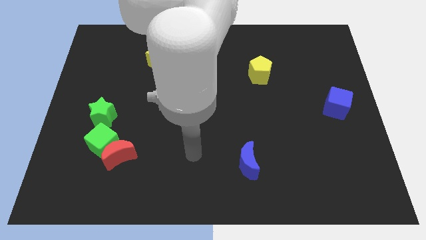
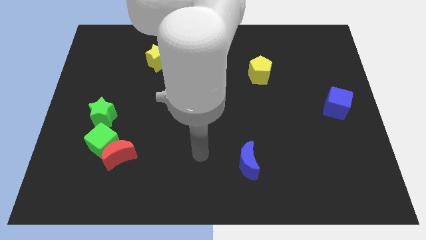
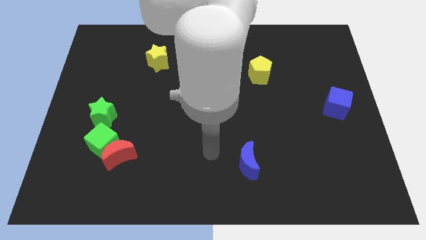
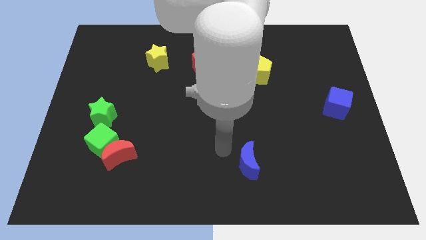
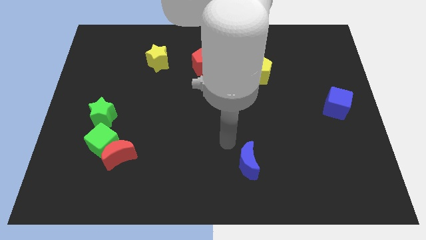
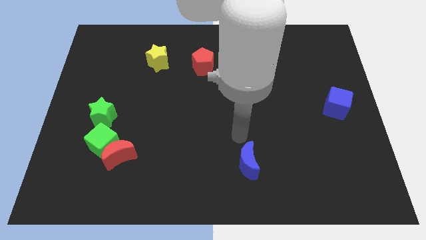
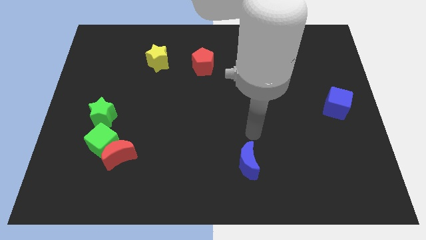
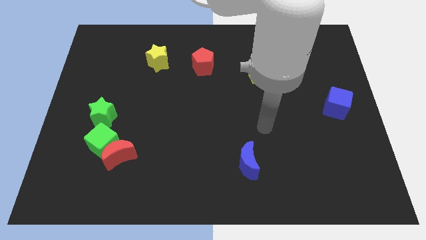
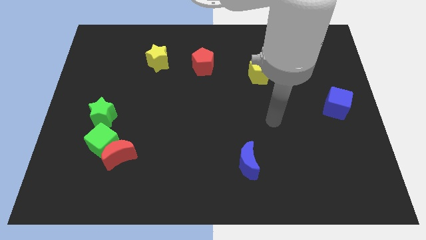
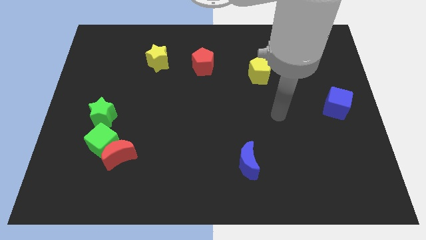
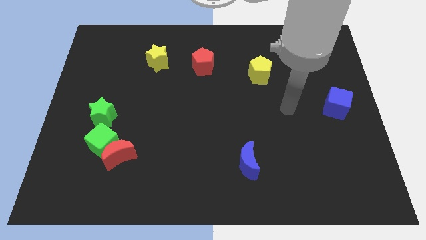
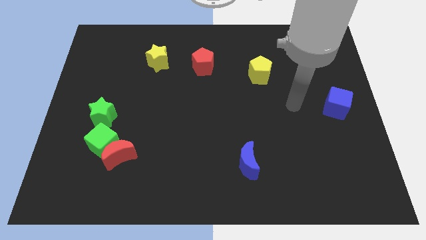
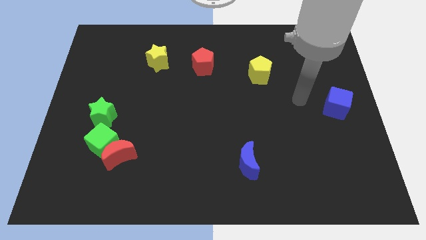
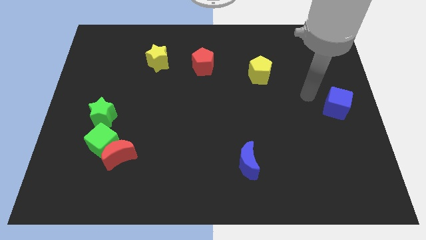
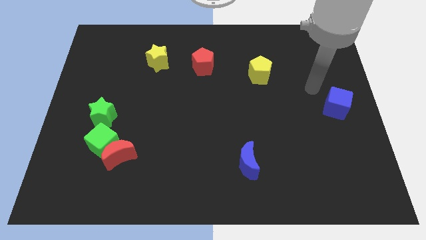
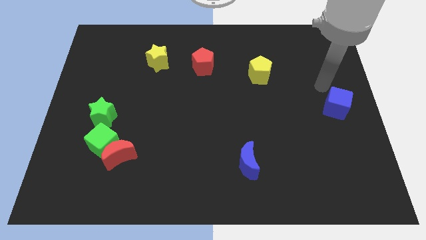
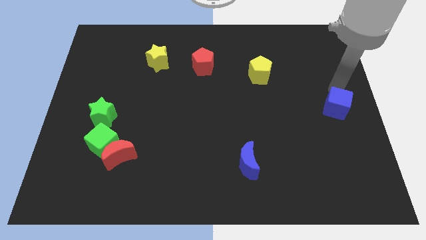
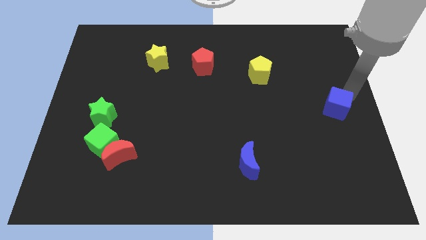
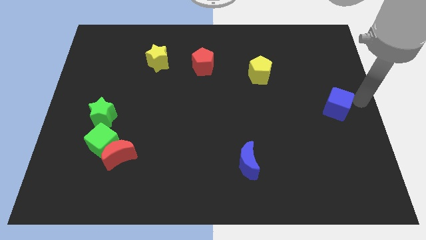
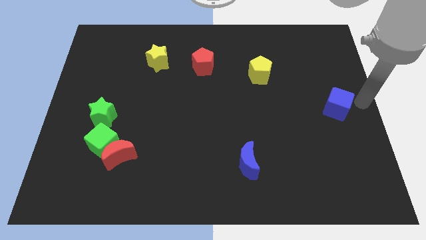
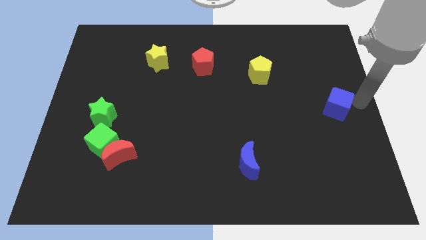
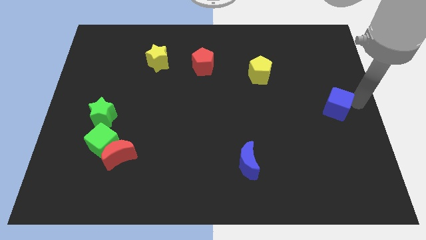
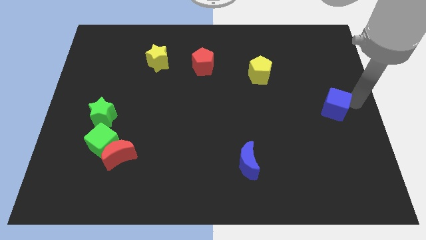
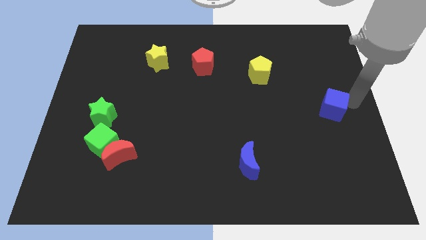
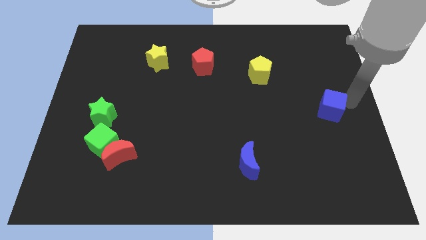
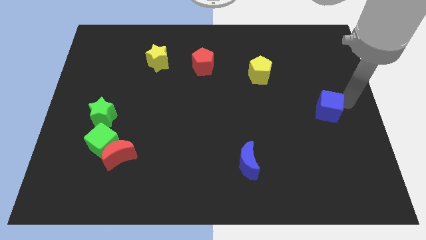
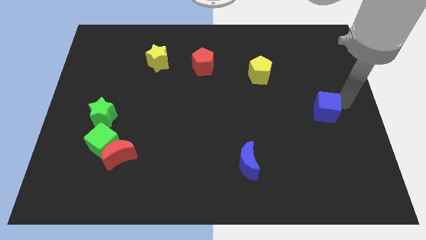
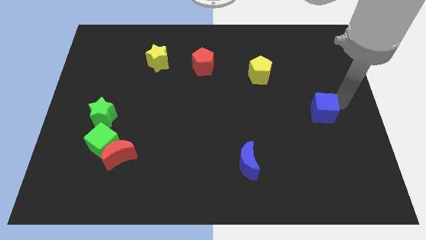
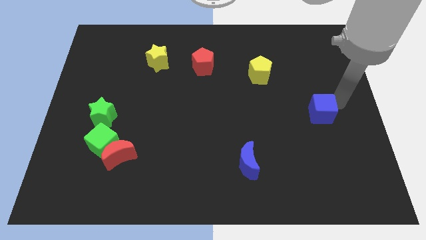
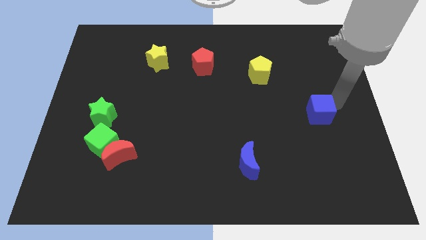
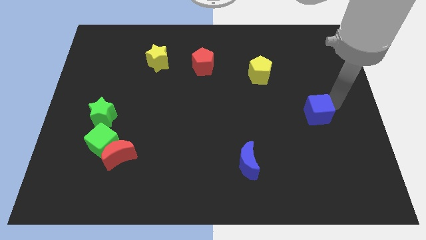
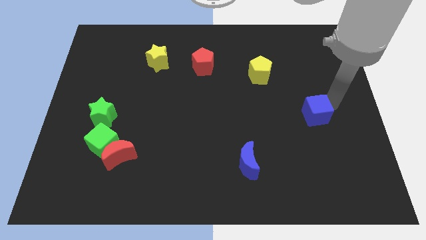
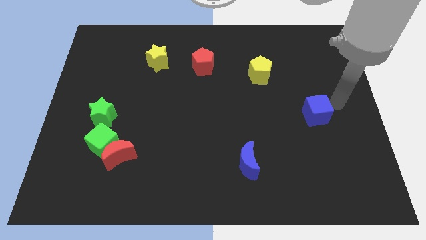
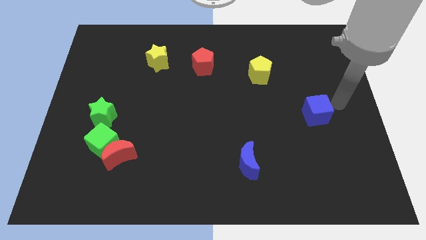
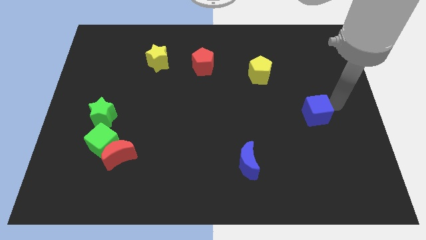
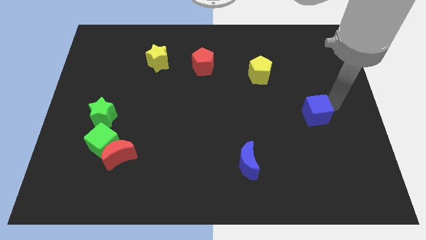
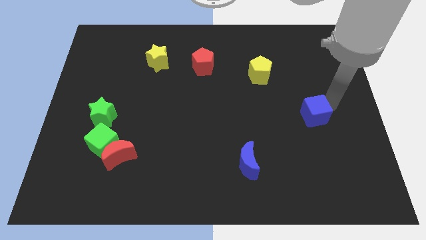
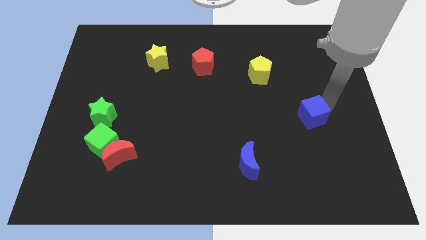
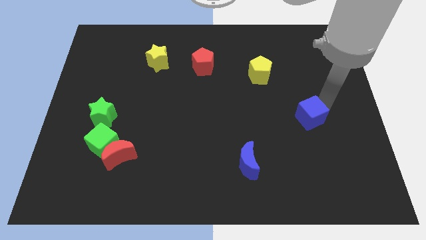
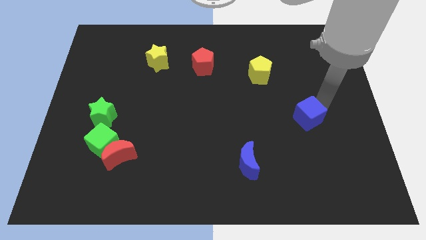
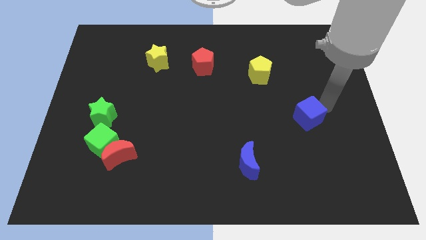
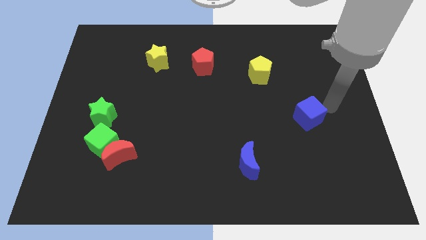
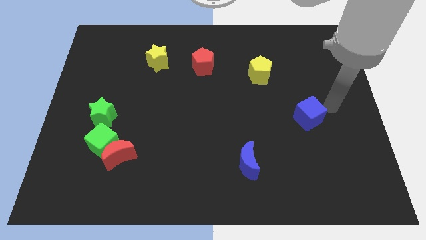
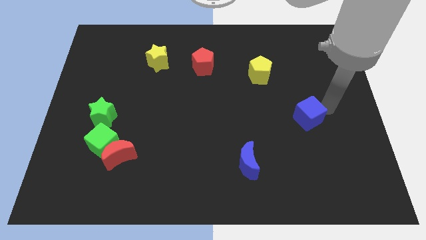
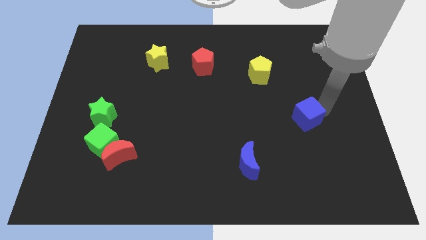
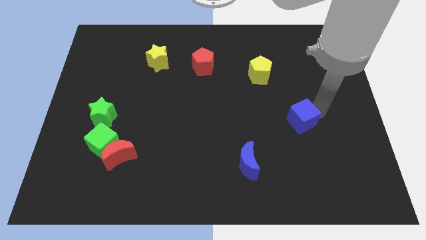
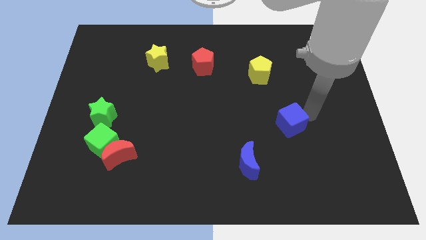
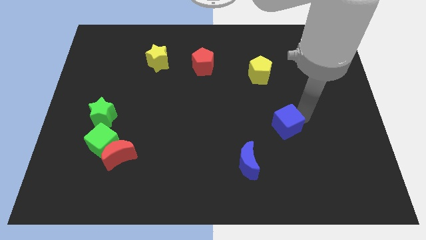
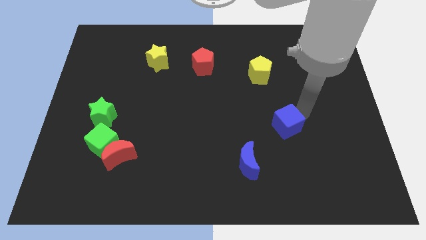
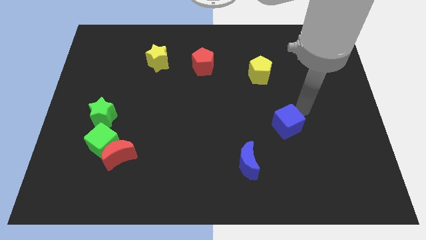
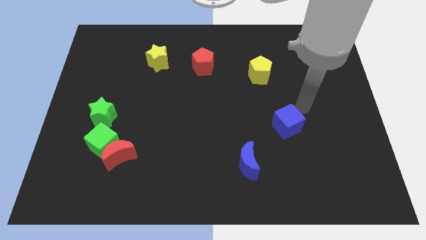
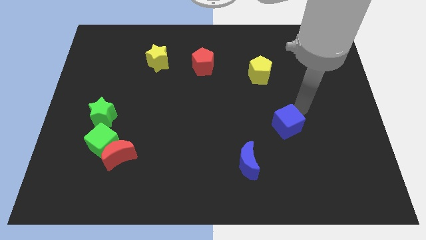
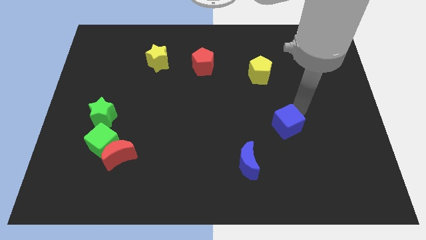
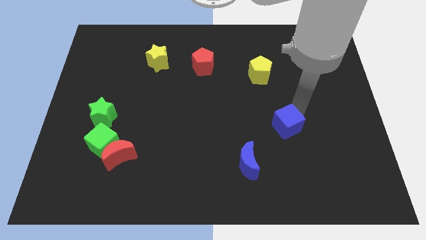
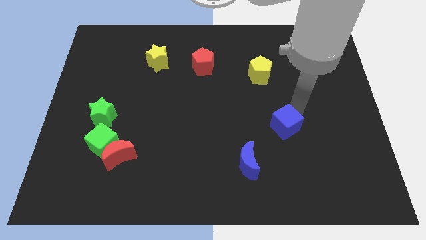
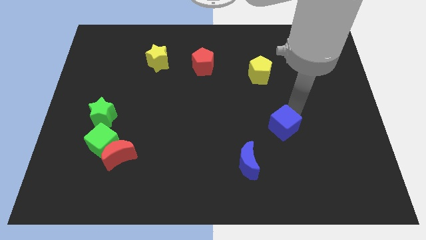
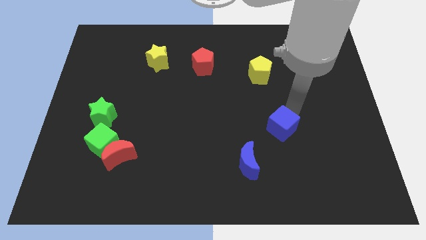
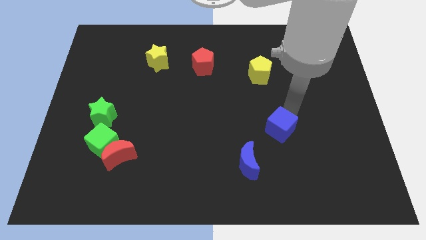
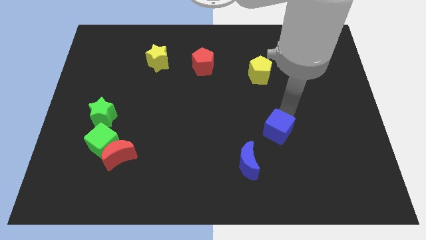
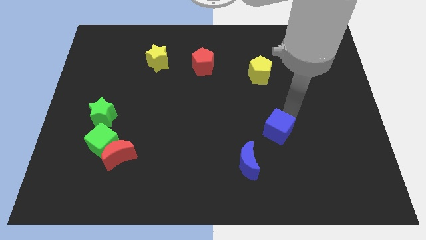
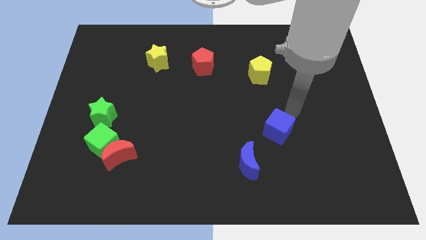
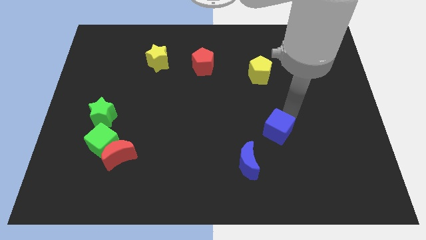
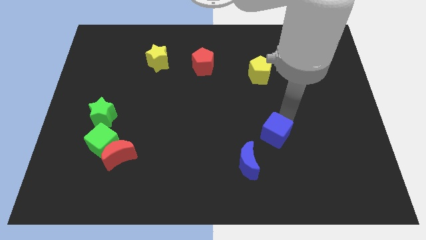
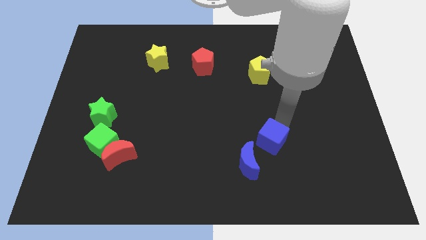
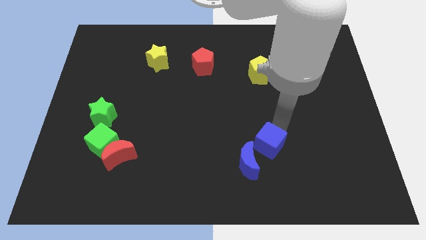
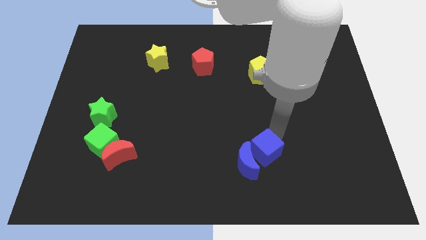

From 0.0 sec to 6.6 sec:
put the blue cube to the blue moon

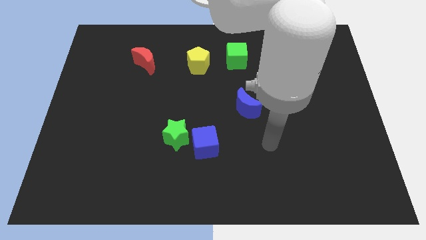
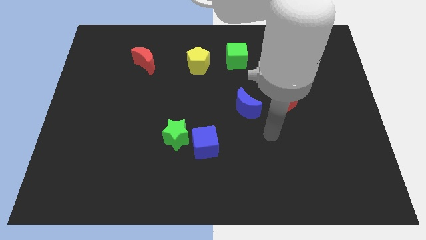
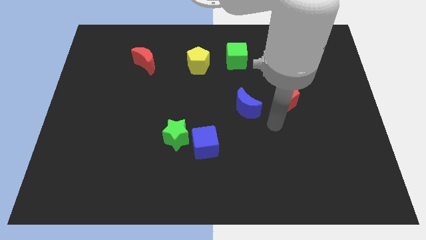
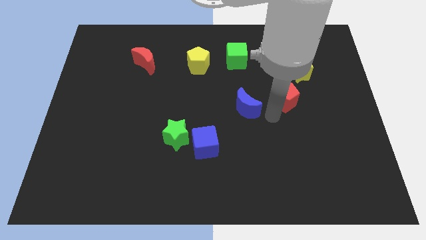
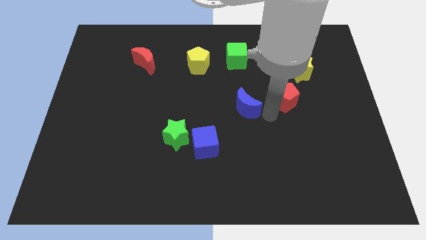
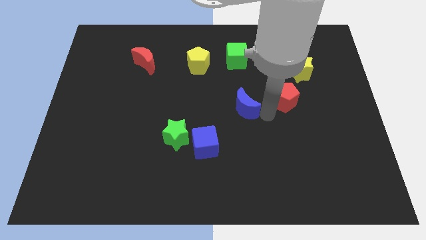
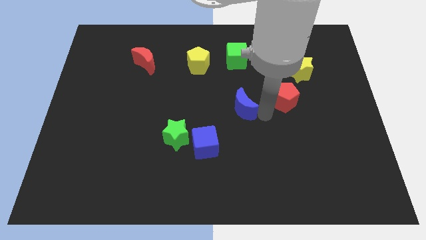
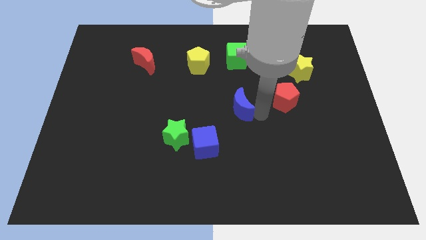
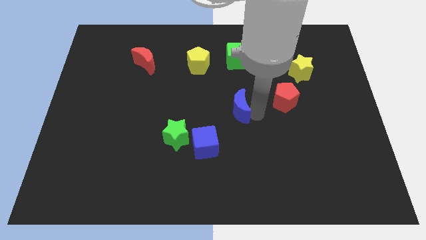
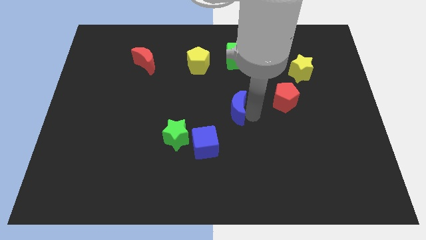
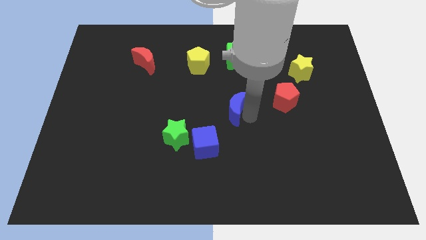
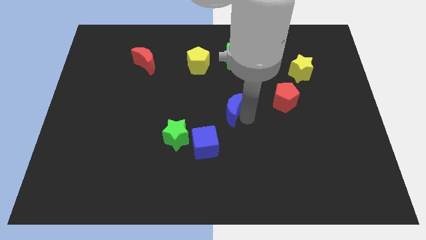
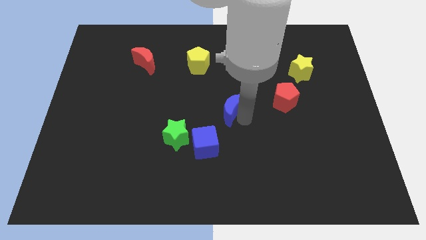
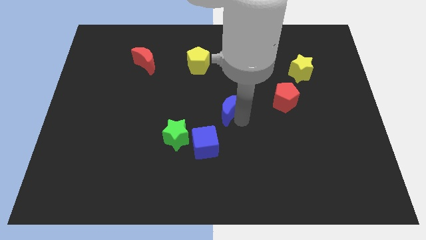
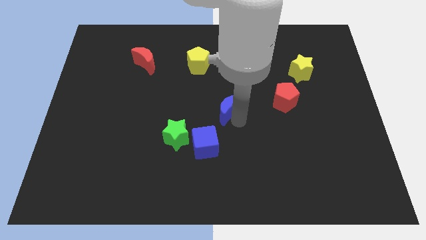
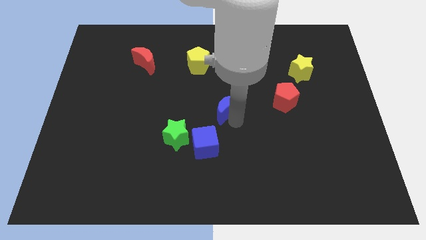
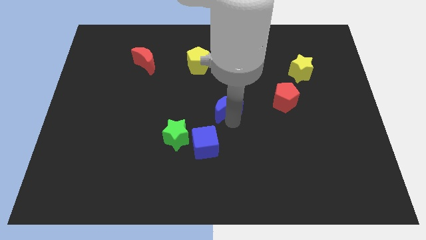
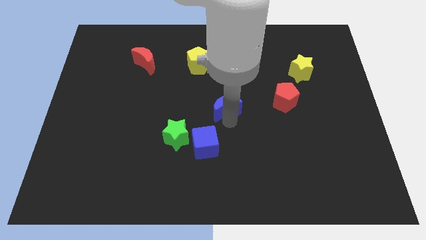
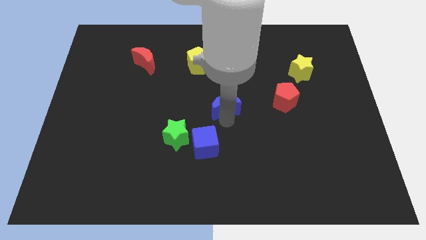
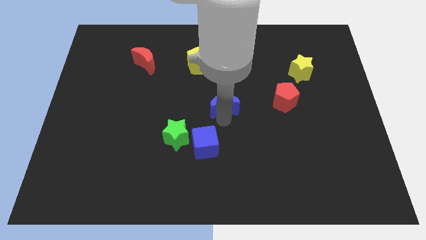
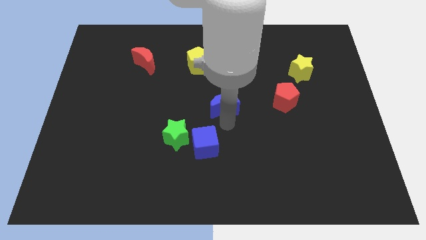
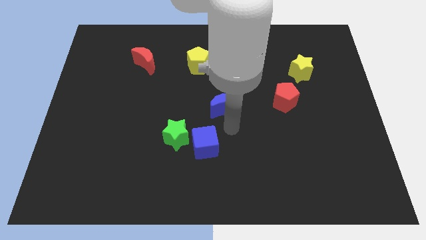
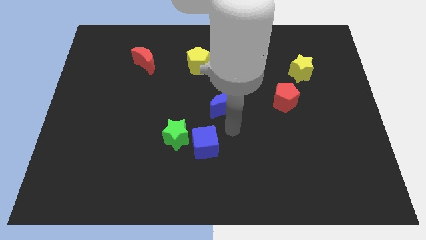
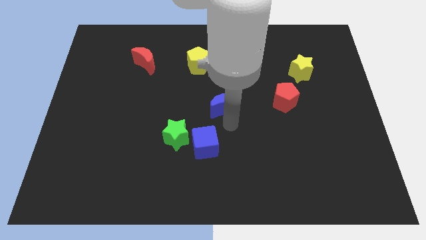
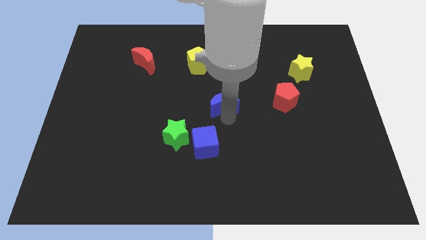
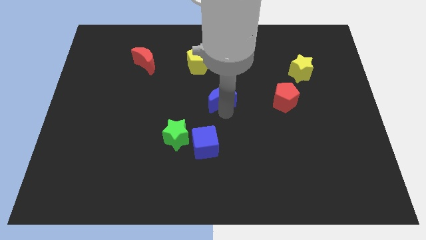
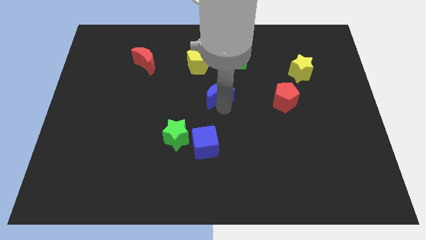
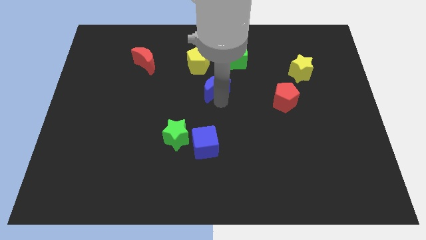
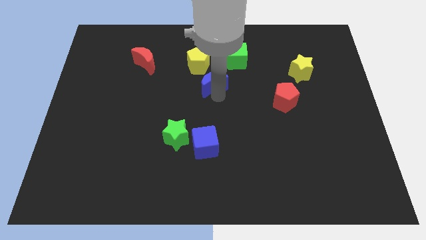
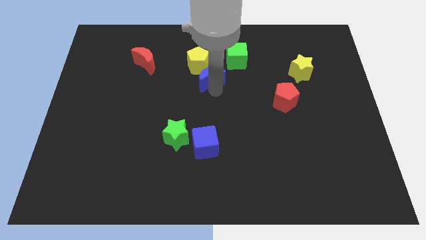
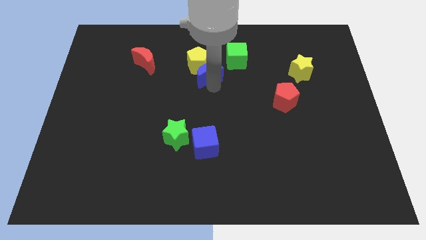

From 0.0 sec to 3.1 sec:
push the blue moon close to the yellow pentagon
